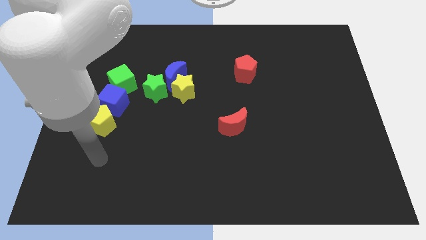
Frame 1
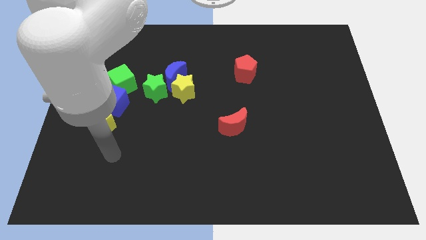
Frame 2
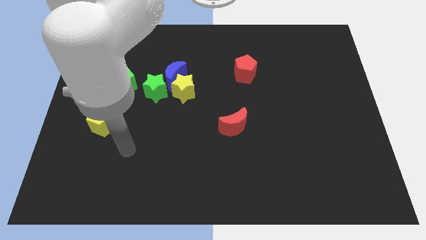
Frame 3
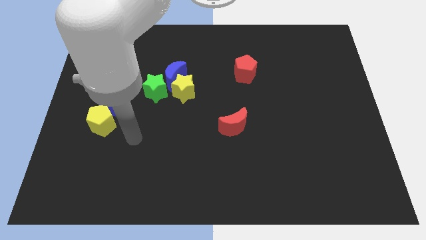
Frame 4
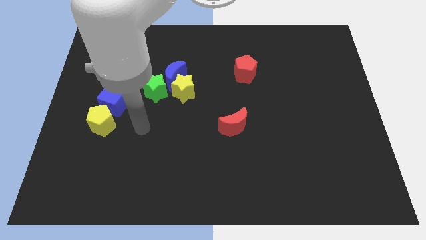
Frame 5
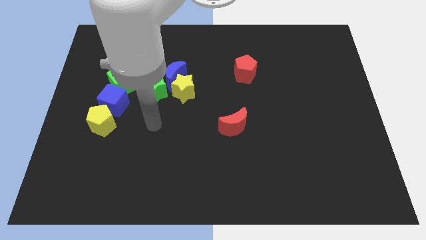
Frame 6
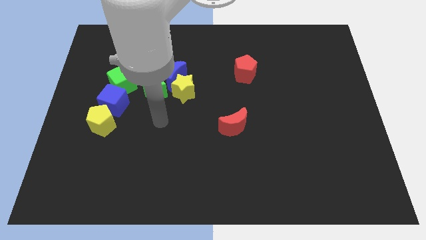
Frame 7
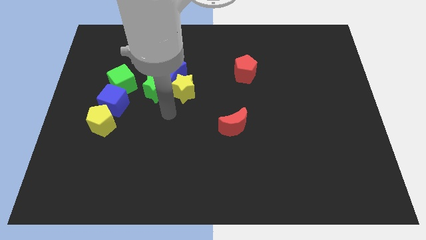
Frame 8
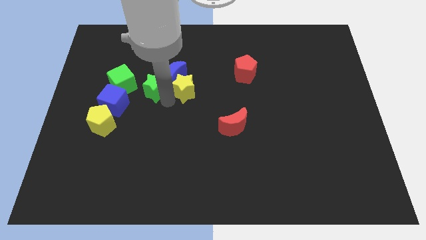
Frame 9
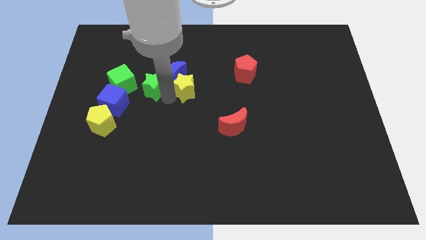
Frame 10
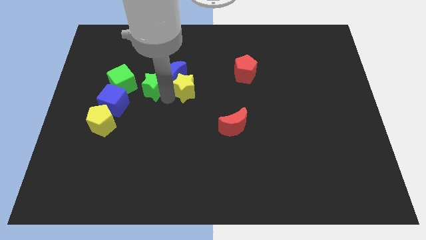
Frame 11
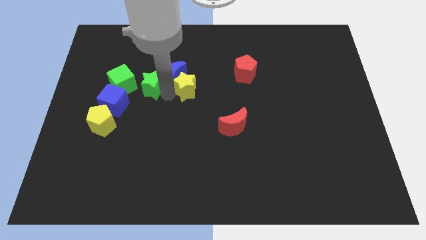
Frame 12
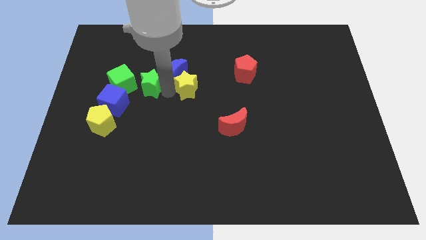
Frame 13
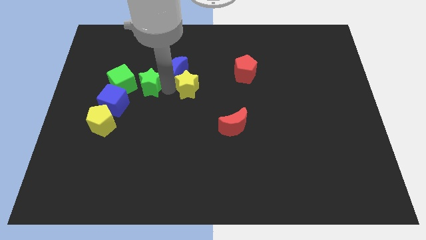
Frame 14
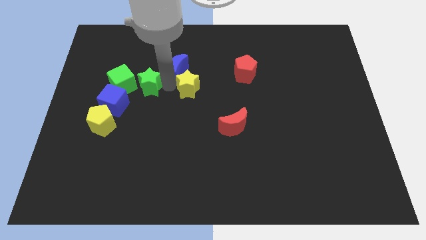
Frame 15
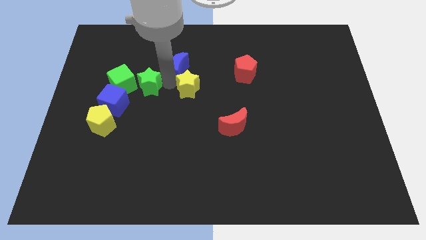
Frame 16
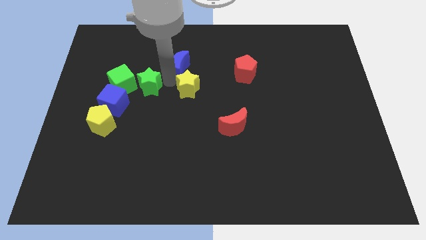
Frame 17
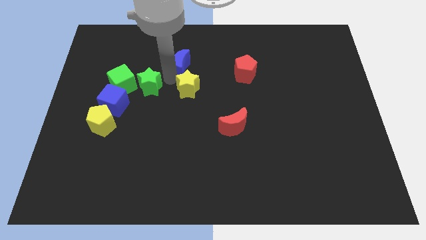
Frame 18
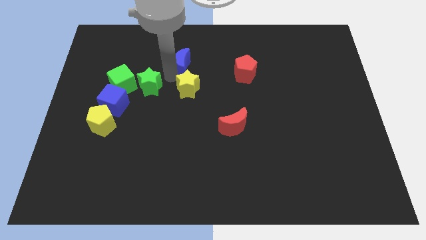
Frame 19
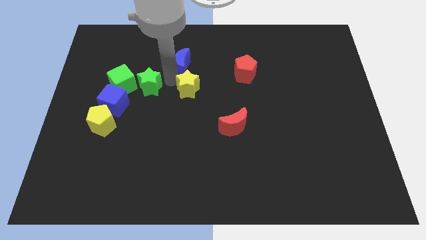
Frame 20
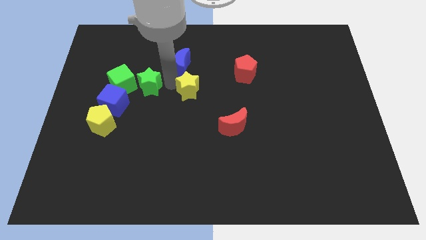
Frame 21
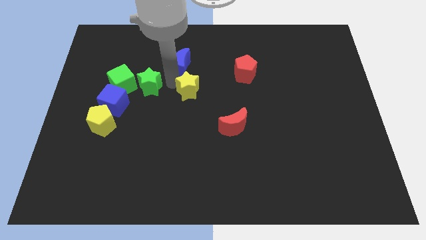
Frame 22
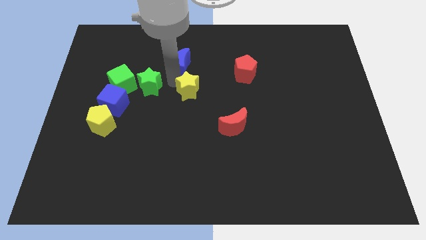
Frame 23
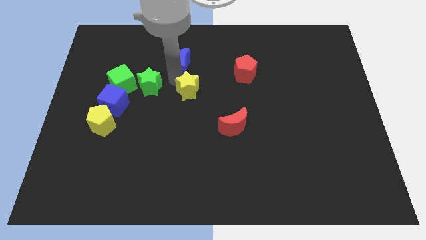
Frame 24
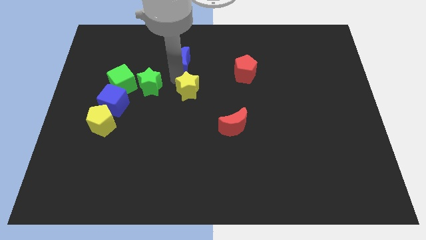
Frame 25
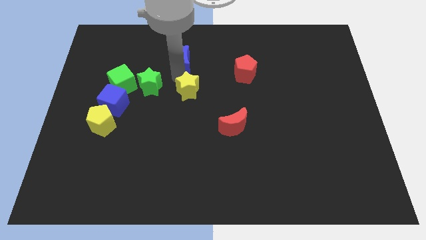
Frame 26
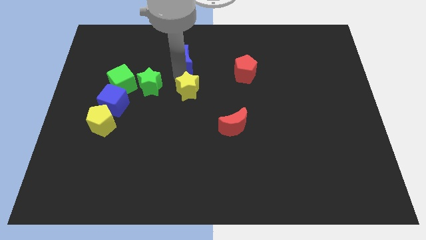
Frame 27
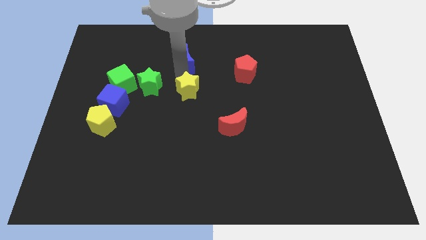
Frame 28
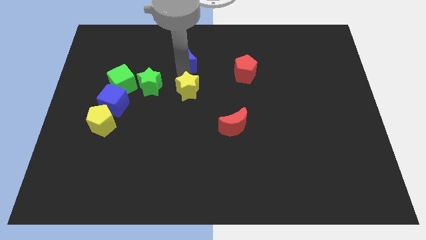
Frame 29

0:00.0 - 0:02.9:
move the blue moon away from the yellow star and green star

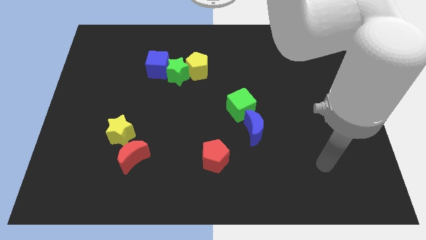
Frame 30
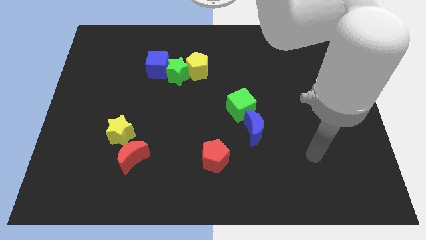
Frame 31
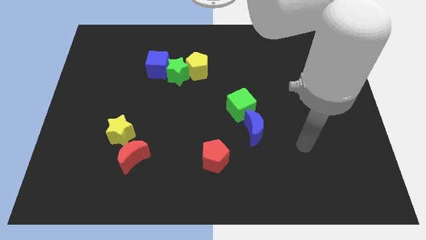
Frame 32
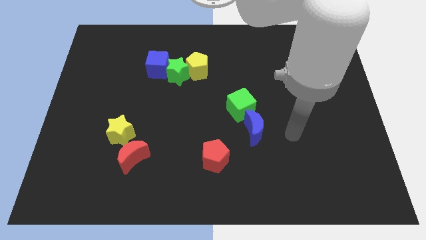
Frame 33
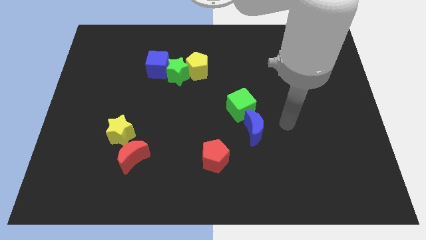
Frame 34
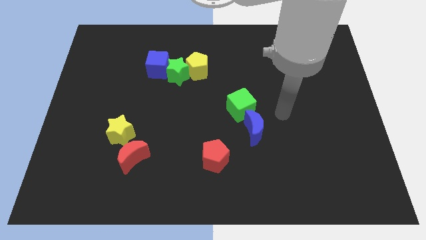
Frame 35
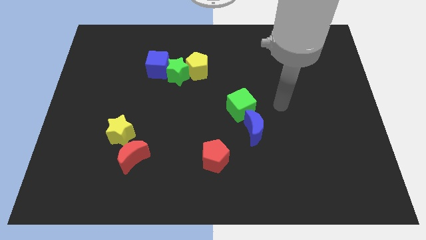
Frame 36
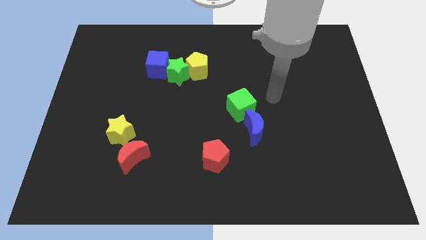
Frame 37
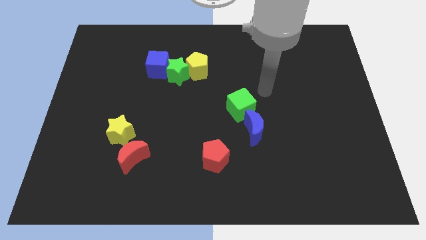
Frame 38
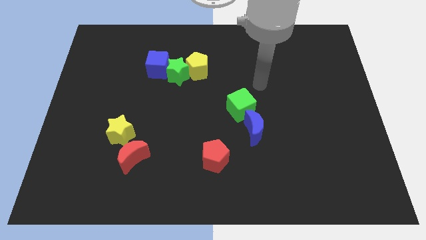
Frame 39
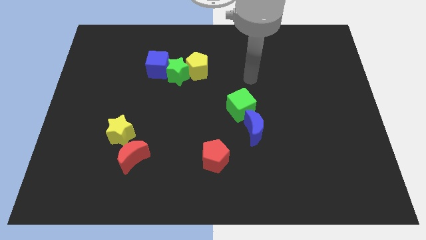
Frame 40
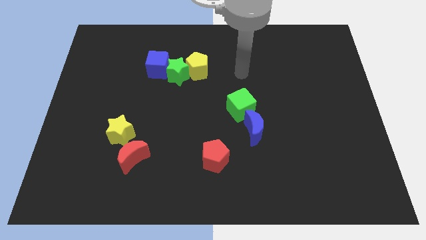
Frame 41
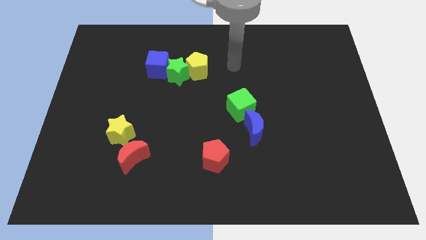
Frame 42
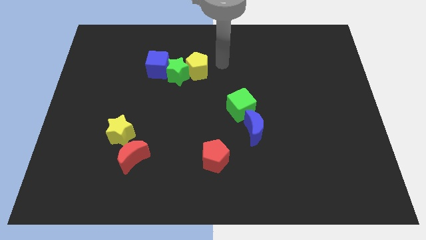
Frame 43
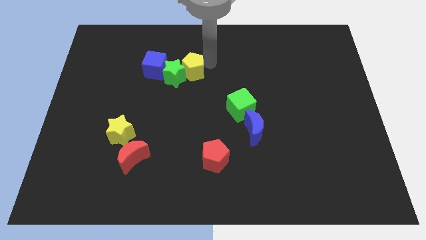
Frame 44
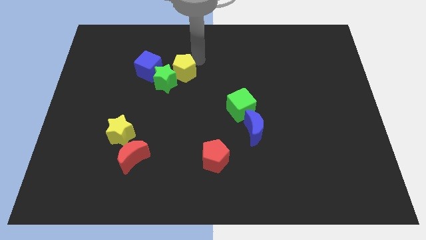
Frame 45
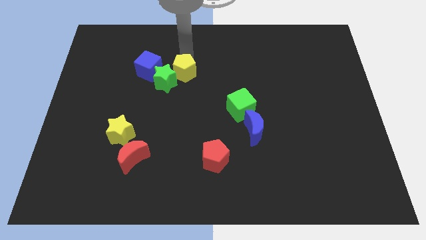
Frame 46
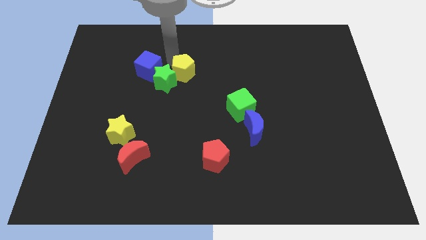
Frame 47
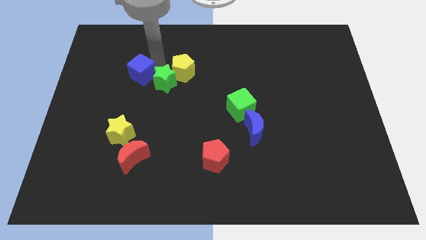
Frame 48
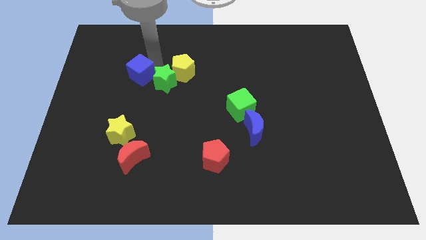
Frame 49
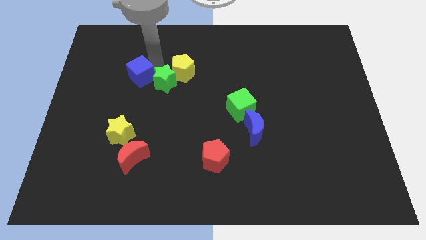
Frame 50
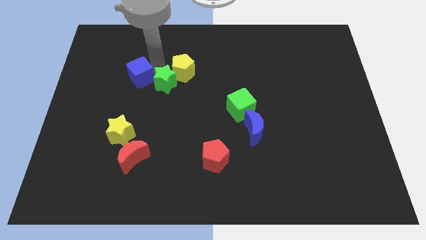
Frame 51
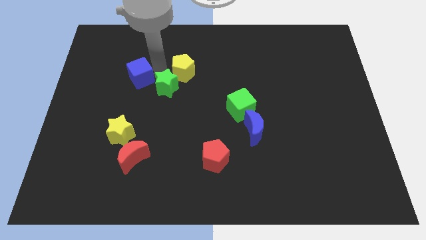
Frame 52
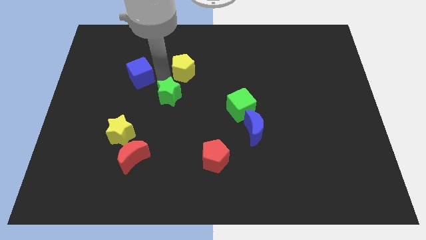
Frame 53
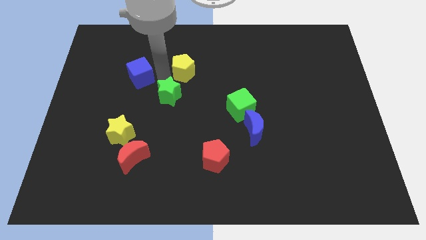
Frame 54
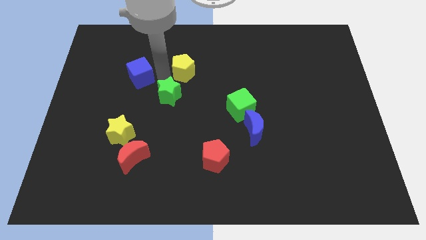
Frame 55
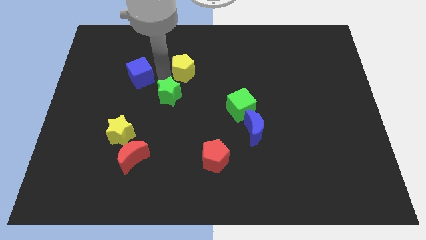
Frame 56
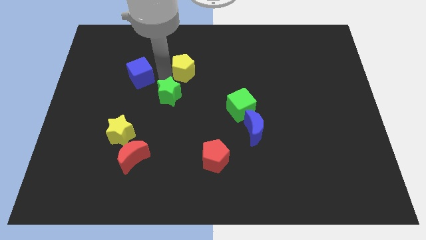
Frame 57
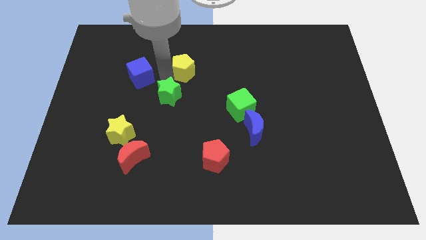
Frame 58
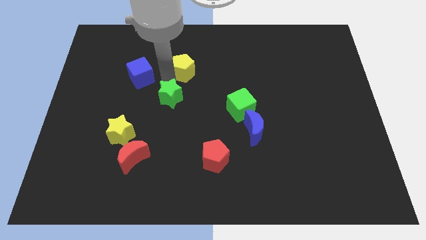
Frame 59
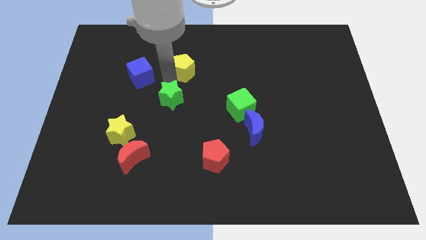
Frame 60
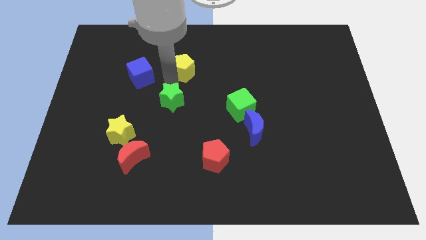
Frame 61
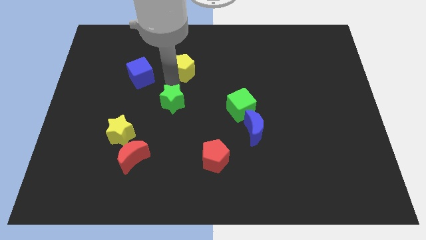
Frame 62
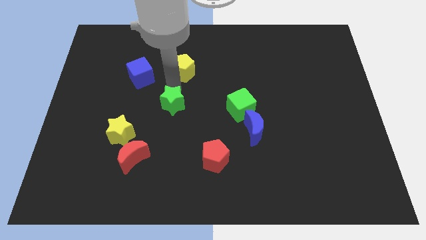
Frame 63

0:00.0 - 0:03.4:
separate the green star from the yellow pentagon and blue cube

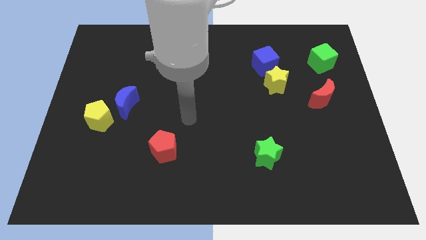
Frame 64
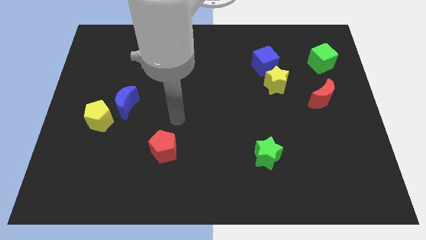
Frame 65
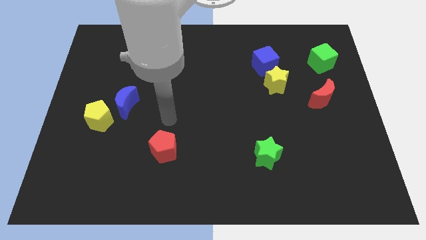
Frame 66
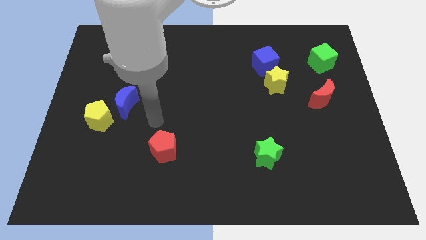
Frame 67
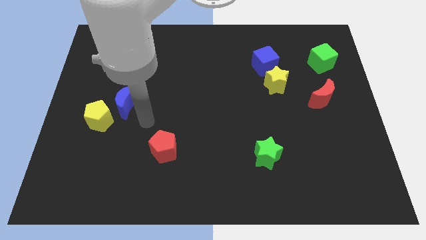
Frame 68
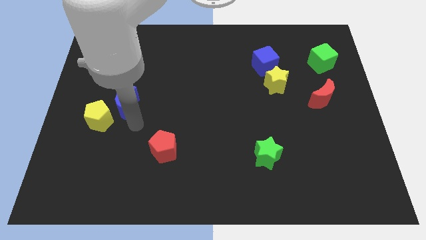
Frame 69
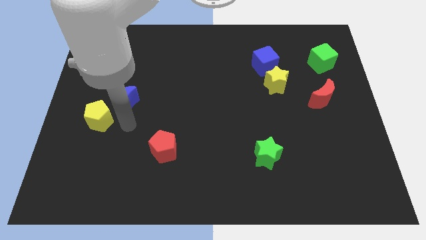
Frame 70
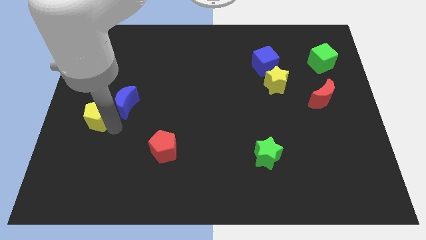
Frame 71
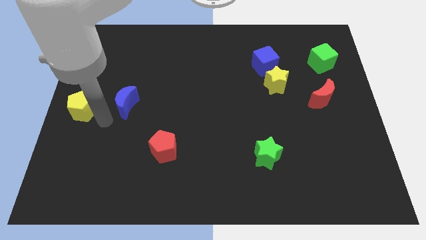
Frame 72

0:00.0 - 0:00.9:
separate the blue moon from the yellow pentagon

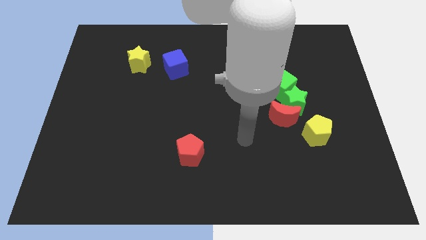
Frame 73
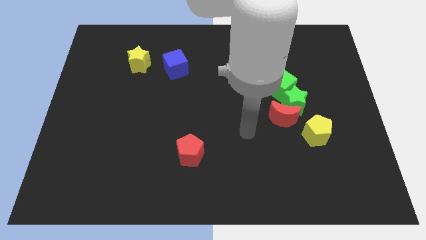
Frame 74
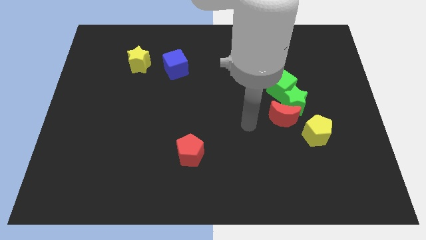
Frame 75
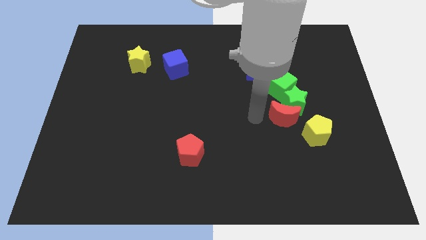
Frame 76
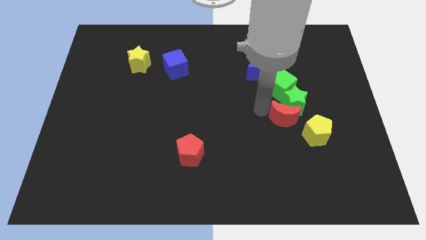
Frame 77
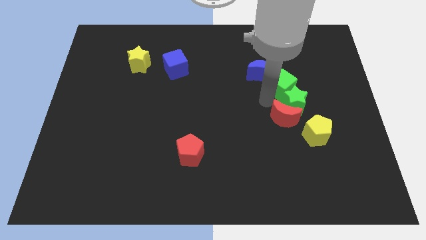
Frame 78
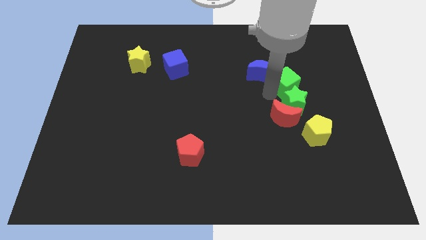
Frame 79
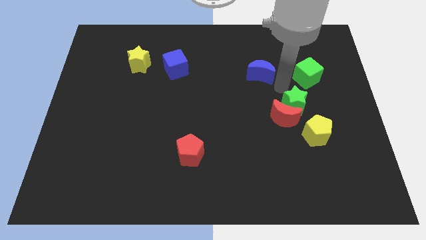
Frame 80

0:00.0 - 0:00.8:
separate the blue moon from the green cube

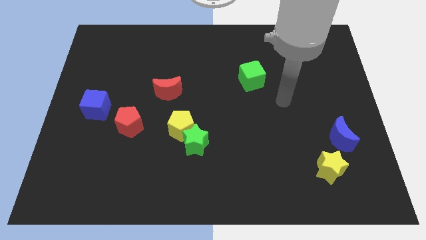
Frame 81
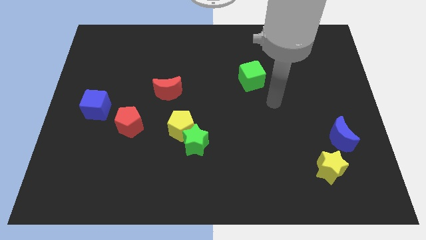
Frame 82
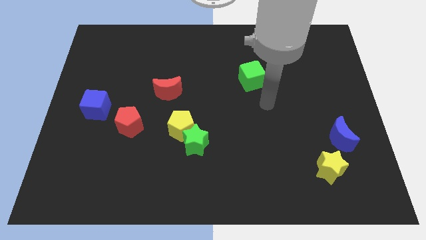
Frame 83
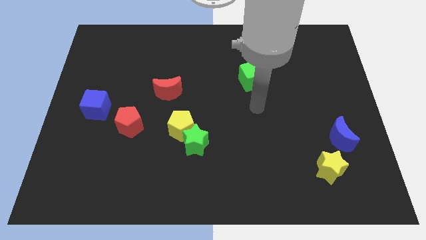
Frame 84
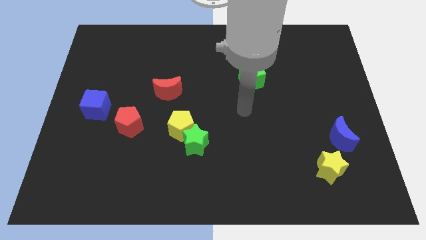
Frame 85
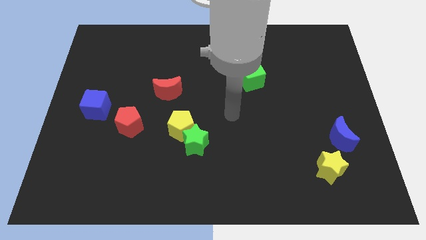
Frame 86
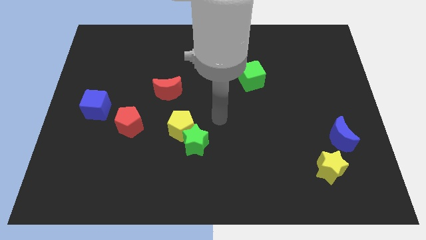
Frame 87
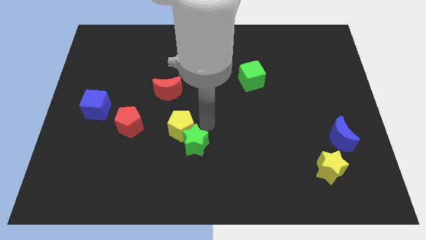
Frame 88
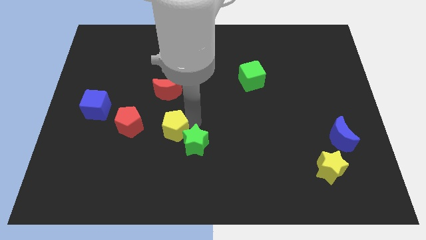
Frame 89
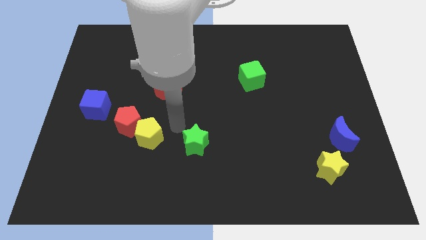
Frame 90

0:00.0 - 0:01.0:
separate the green star from the yellow pentagon

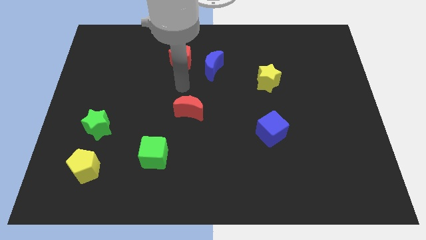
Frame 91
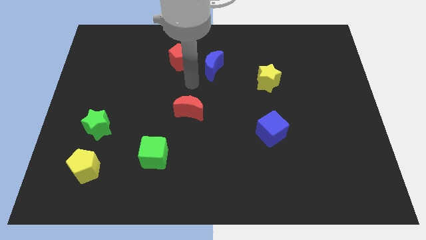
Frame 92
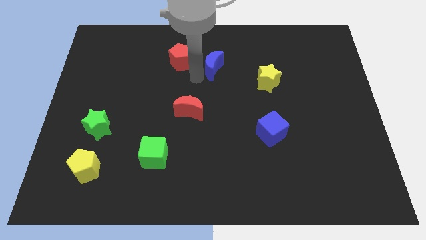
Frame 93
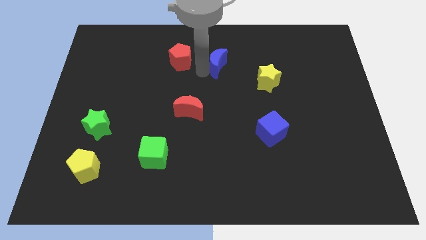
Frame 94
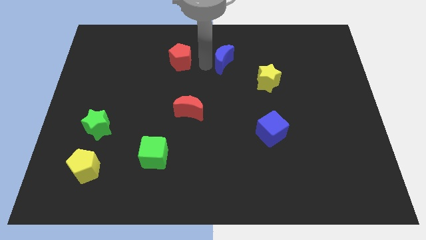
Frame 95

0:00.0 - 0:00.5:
move the red pentagon away from the blue moon
